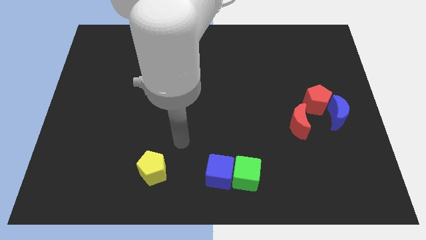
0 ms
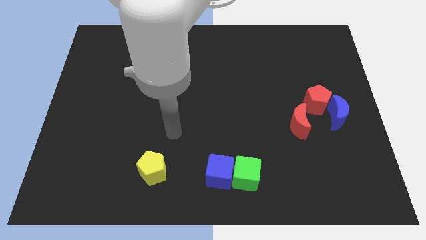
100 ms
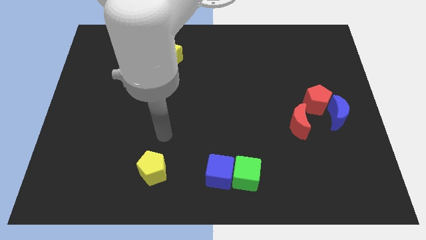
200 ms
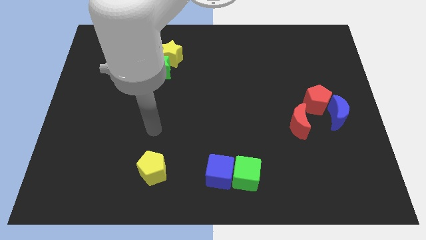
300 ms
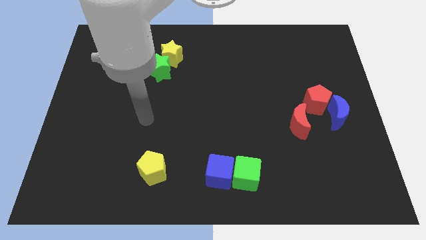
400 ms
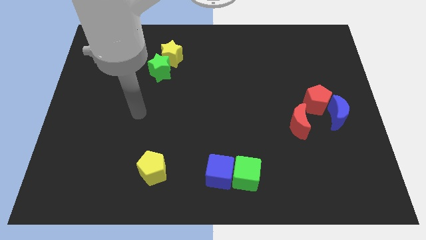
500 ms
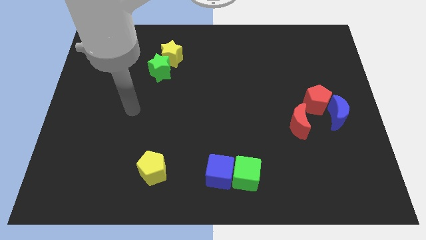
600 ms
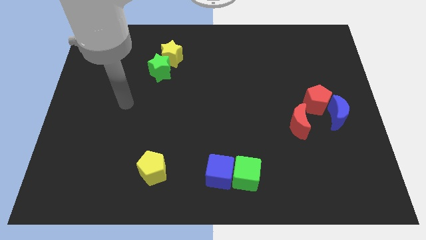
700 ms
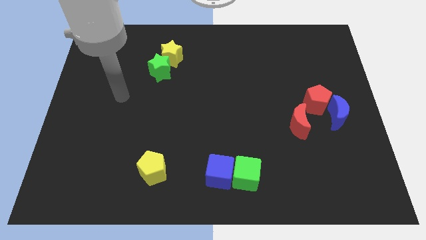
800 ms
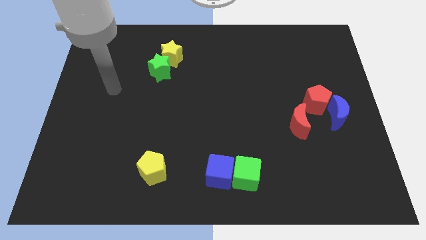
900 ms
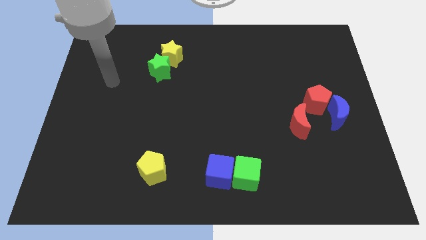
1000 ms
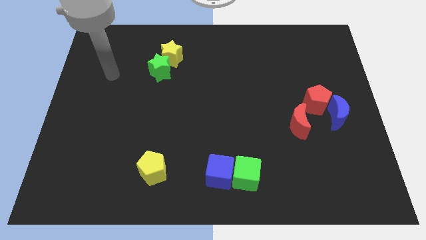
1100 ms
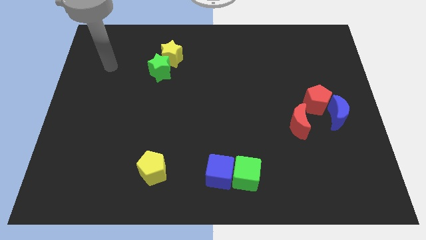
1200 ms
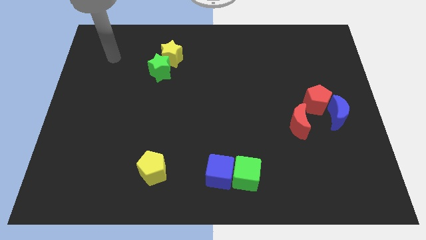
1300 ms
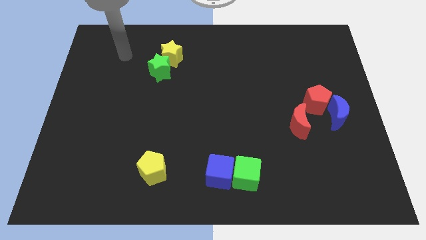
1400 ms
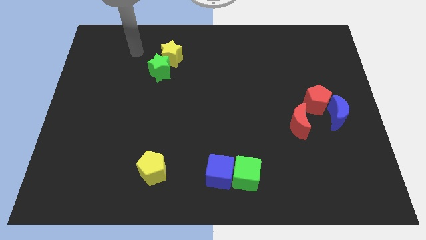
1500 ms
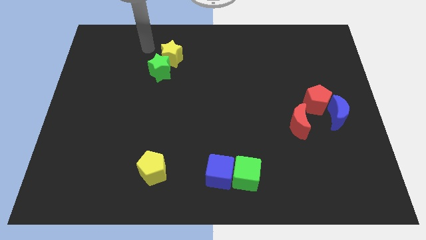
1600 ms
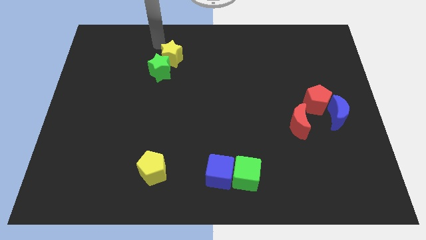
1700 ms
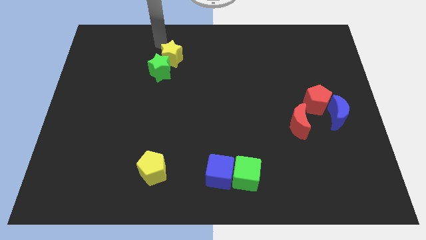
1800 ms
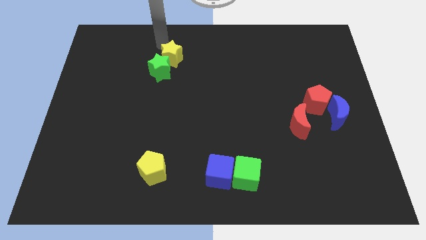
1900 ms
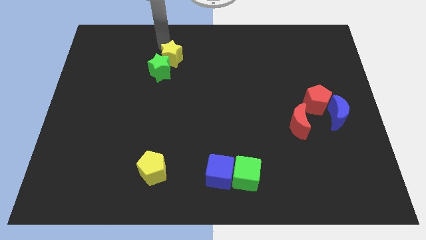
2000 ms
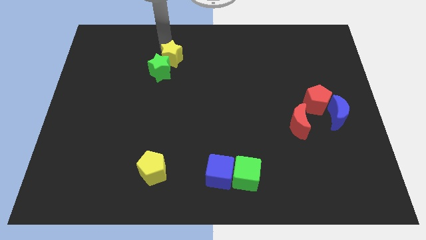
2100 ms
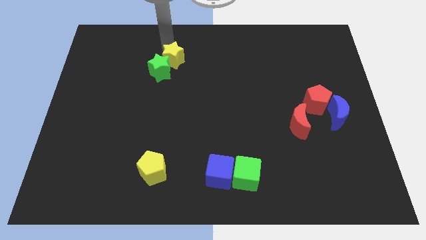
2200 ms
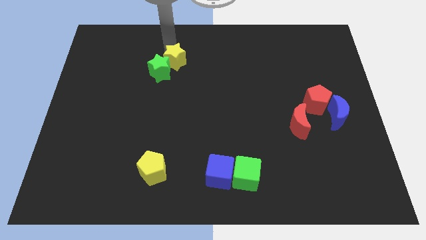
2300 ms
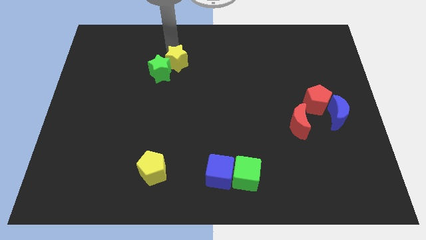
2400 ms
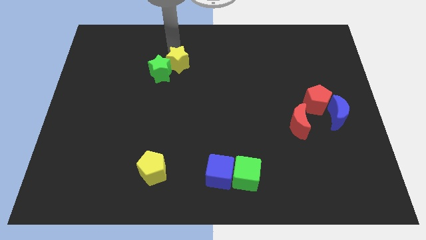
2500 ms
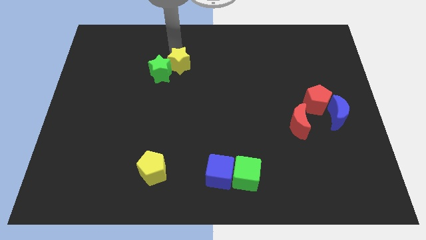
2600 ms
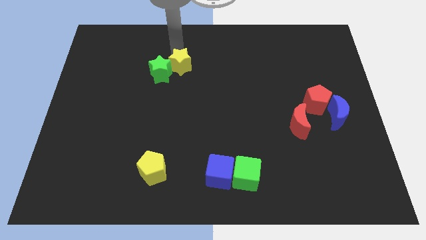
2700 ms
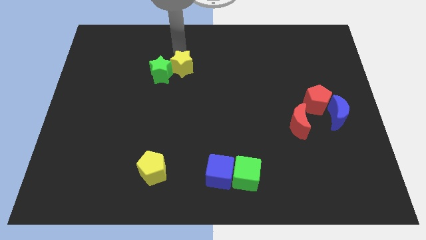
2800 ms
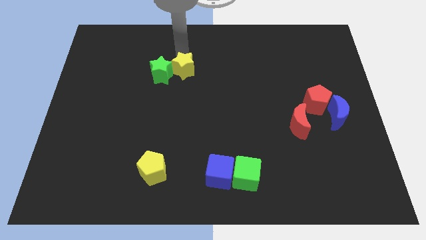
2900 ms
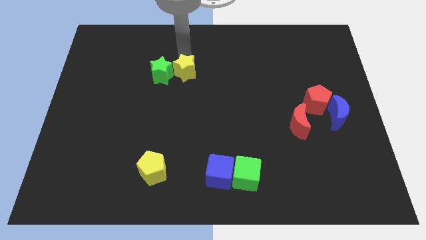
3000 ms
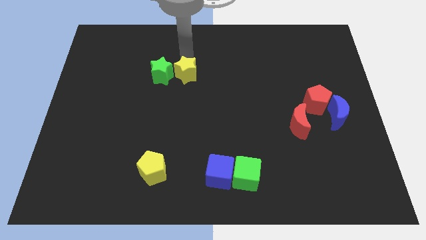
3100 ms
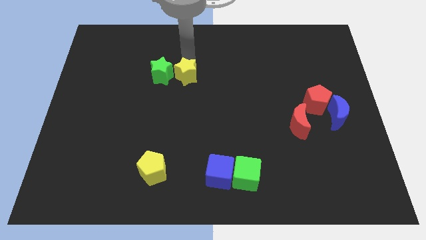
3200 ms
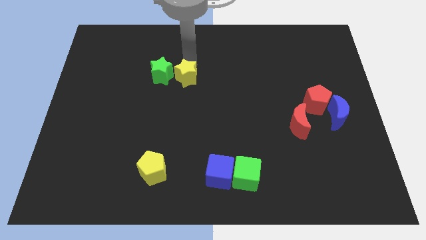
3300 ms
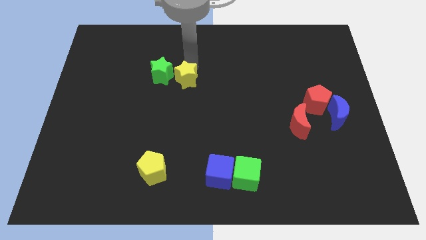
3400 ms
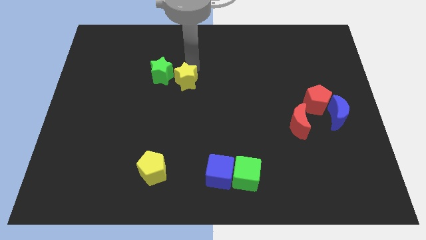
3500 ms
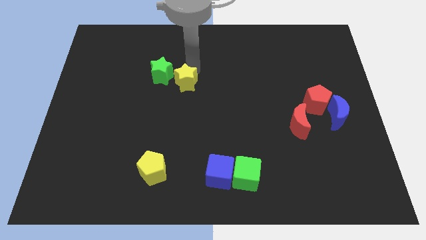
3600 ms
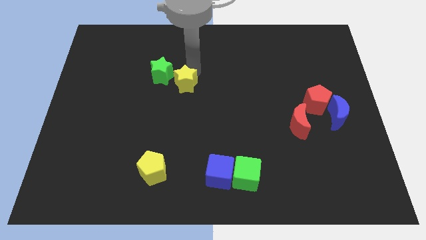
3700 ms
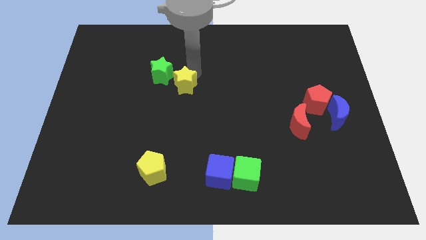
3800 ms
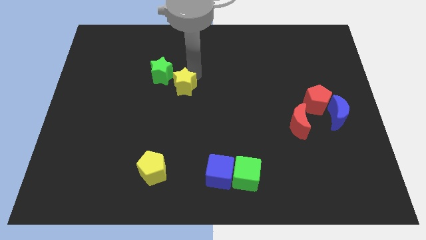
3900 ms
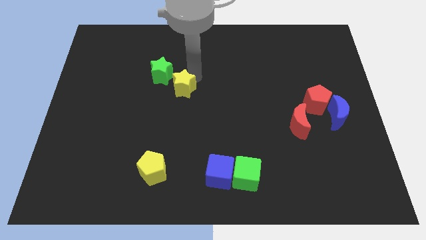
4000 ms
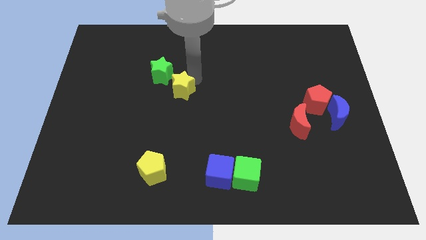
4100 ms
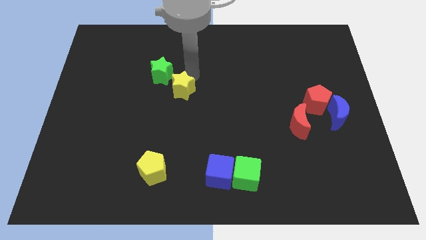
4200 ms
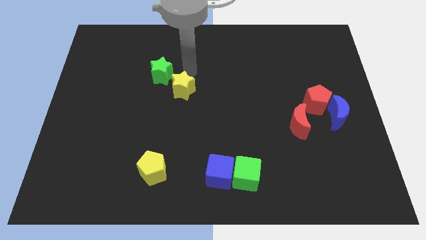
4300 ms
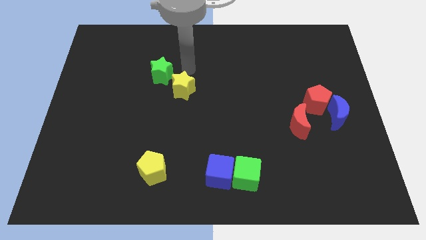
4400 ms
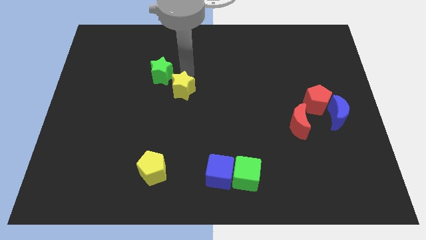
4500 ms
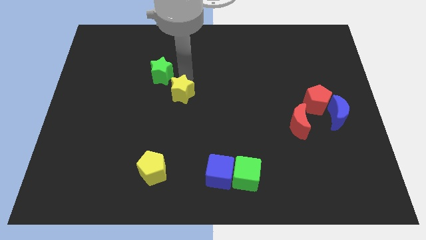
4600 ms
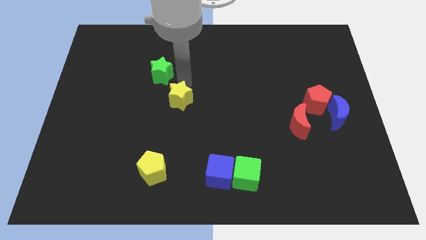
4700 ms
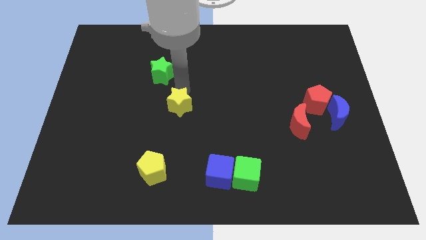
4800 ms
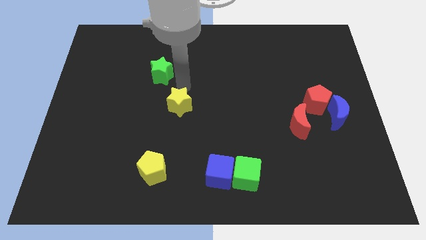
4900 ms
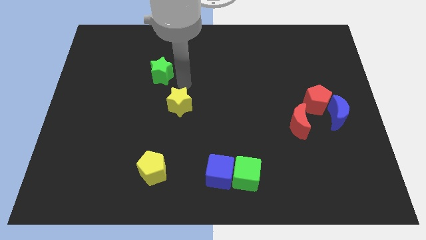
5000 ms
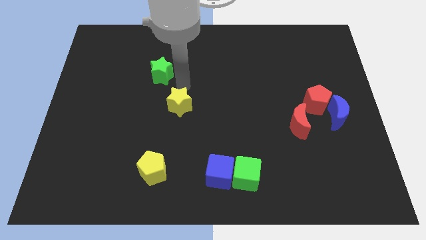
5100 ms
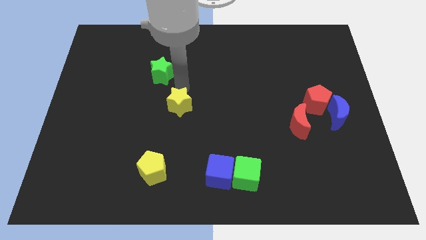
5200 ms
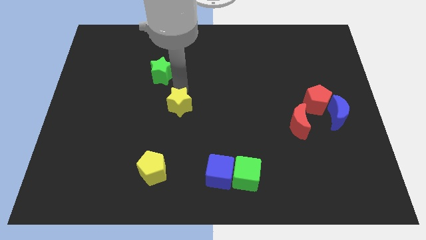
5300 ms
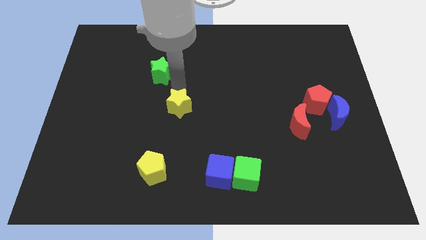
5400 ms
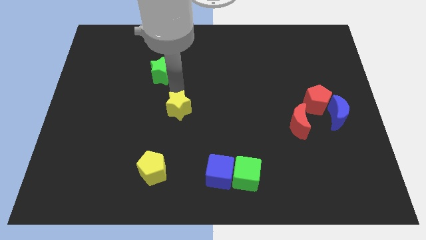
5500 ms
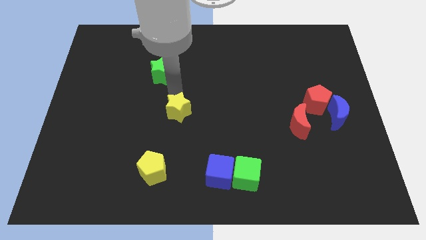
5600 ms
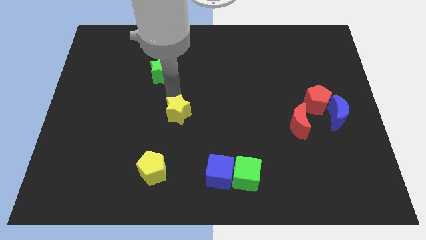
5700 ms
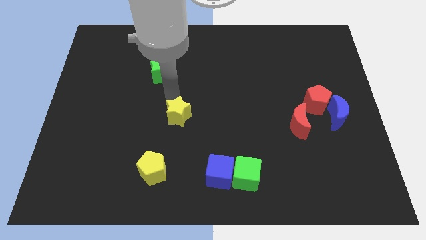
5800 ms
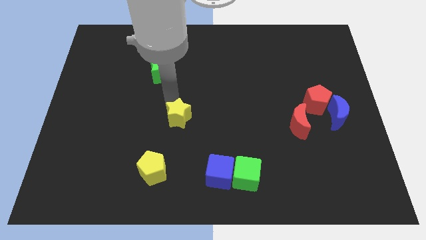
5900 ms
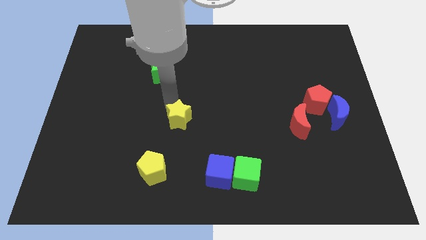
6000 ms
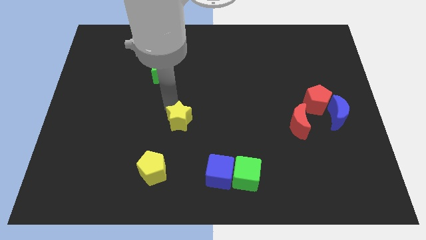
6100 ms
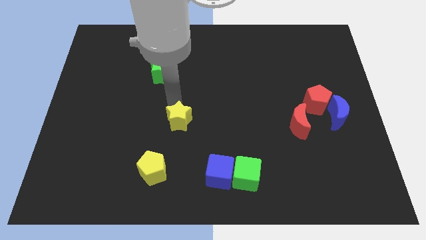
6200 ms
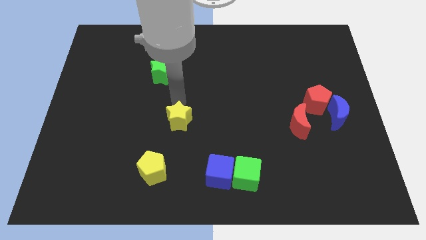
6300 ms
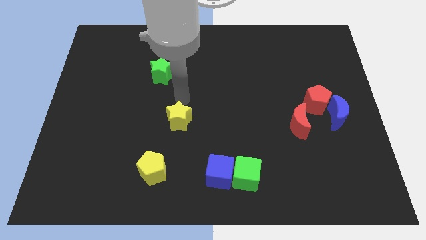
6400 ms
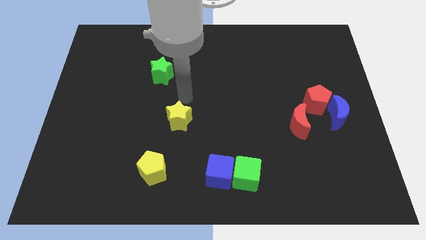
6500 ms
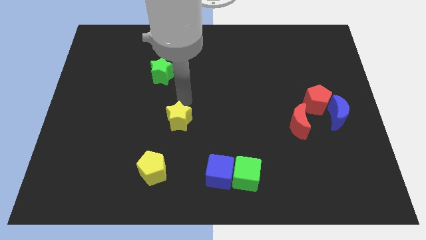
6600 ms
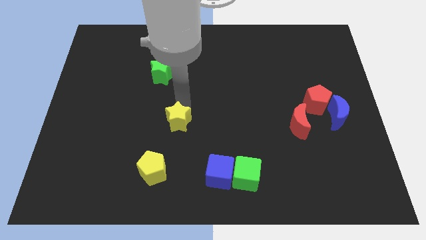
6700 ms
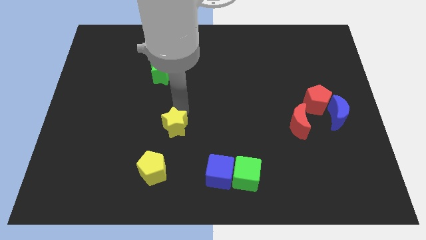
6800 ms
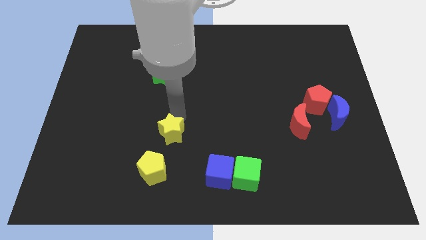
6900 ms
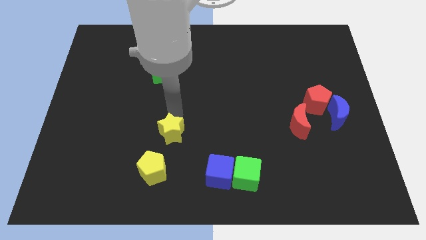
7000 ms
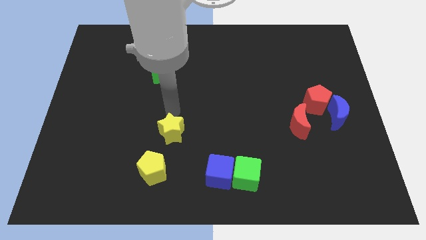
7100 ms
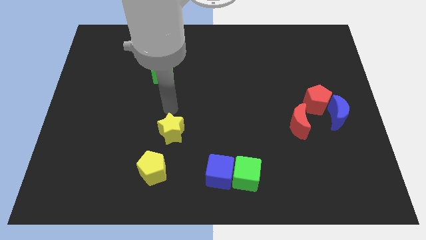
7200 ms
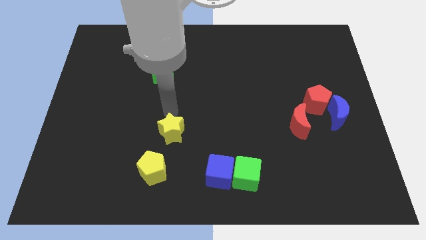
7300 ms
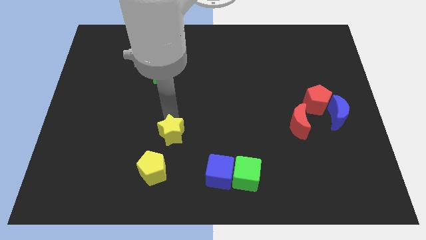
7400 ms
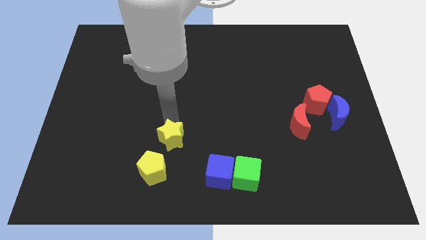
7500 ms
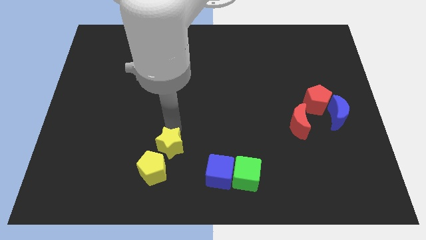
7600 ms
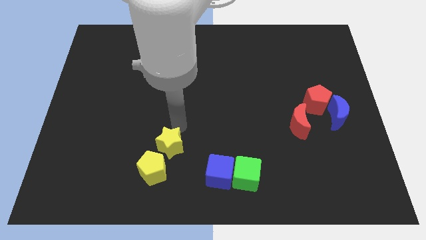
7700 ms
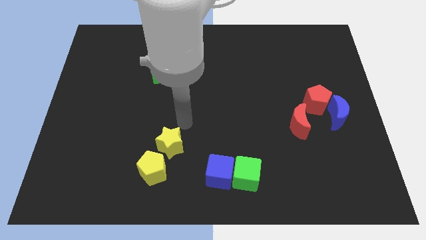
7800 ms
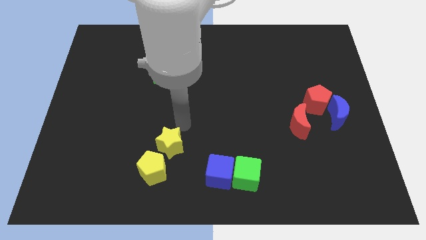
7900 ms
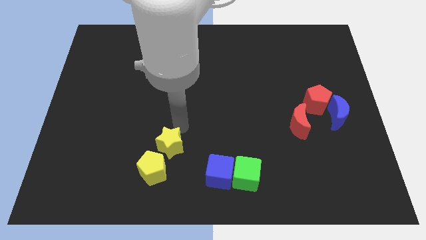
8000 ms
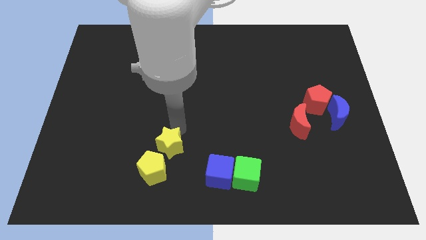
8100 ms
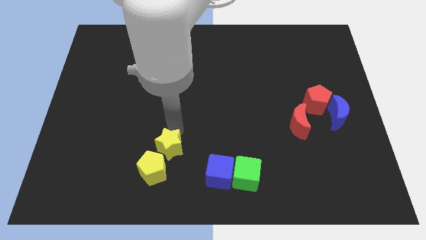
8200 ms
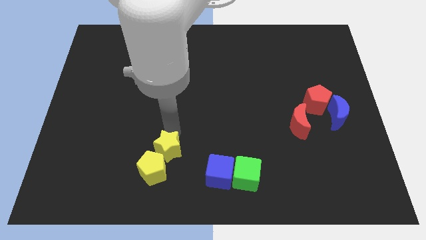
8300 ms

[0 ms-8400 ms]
put the yellow star towards the yellow pentagon
